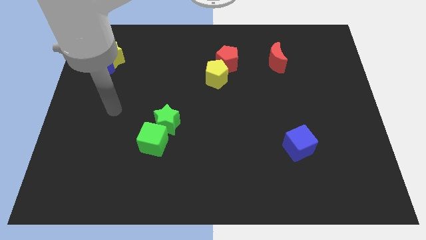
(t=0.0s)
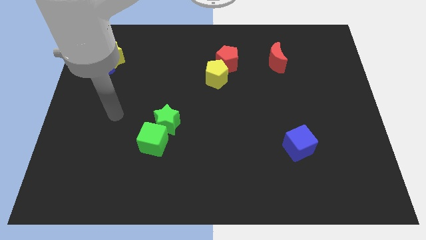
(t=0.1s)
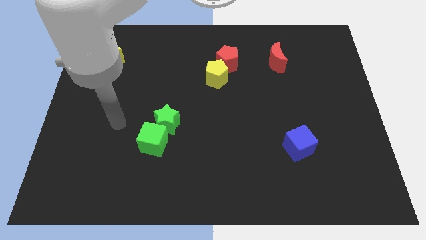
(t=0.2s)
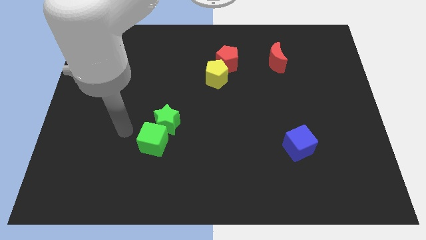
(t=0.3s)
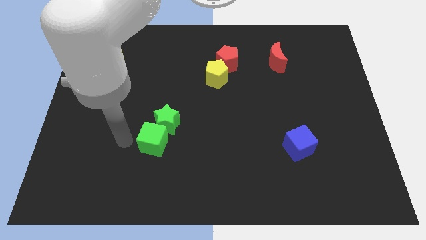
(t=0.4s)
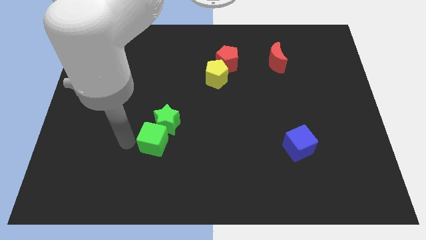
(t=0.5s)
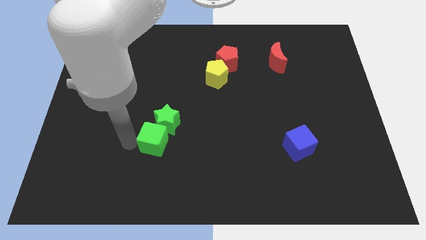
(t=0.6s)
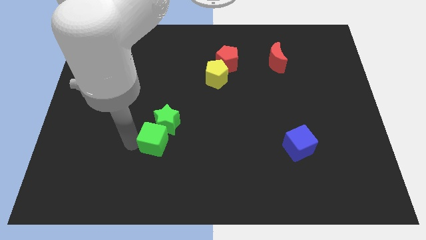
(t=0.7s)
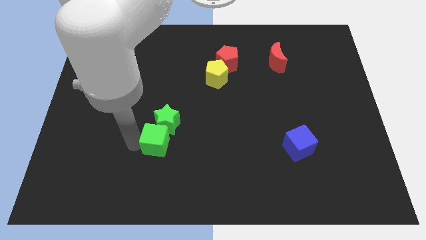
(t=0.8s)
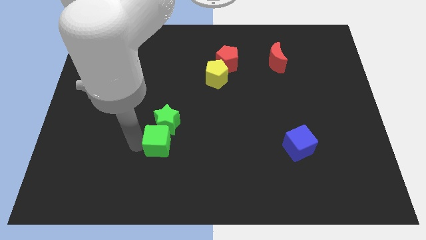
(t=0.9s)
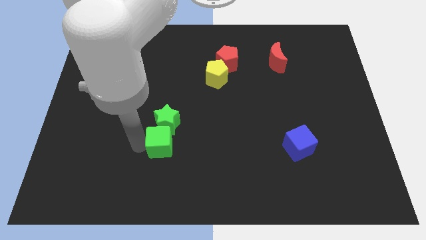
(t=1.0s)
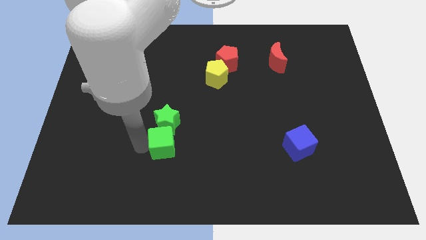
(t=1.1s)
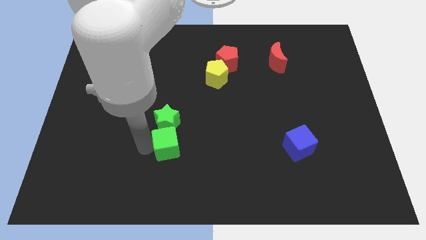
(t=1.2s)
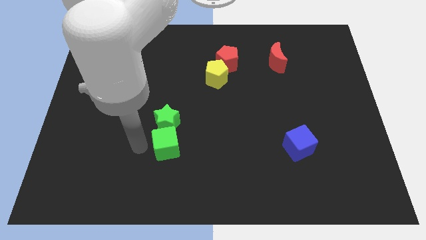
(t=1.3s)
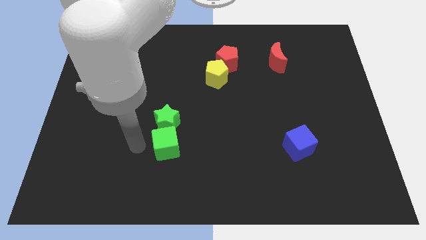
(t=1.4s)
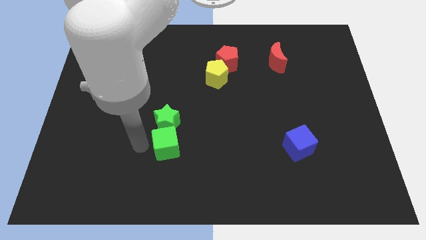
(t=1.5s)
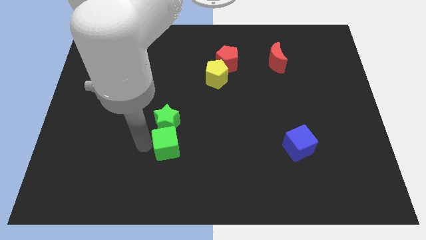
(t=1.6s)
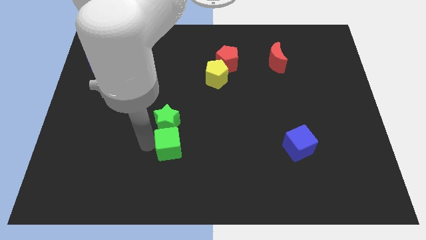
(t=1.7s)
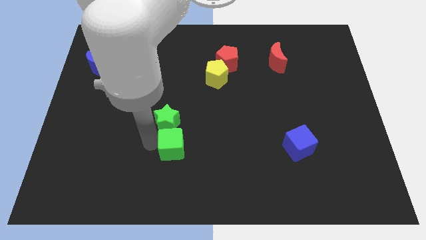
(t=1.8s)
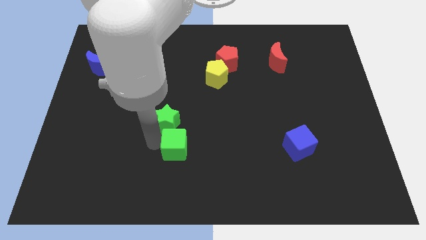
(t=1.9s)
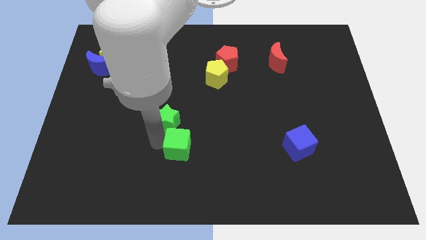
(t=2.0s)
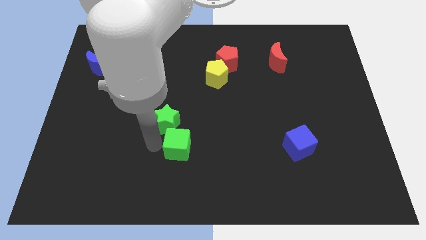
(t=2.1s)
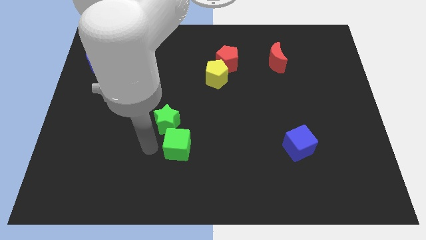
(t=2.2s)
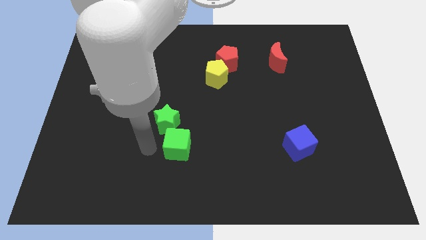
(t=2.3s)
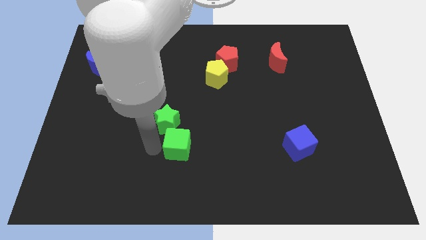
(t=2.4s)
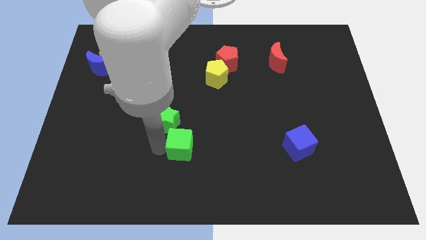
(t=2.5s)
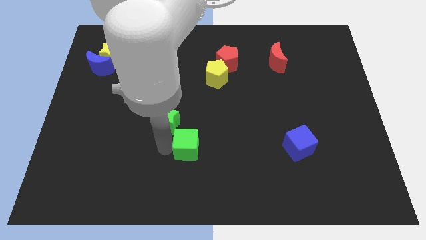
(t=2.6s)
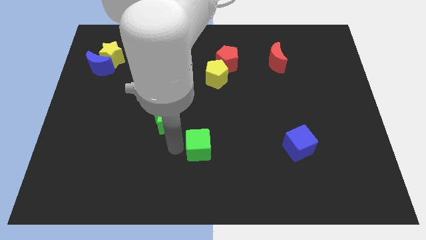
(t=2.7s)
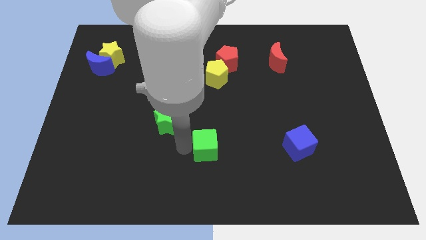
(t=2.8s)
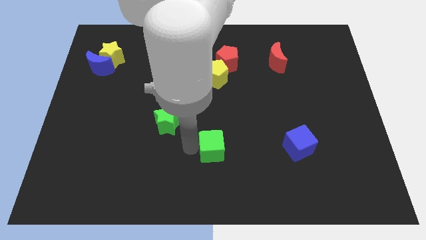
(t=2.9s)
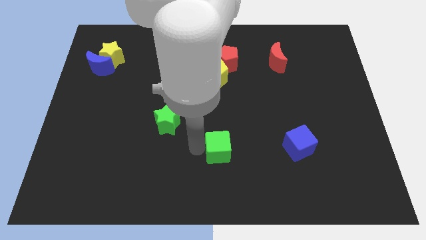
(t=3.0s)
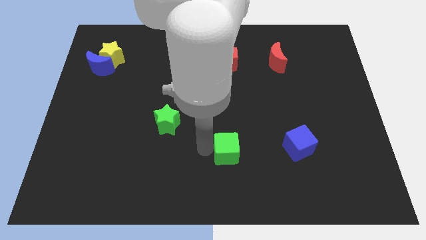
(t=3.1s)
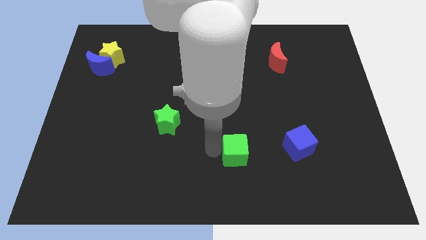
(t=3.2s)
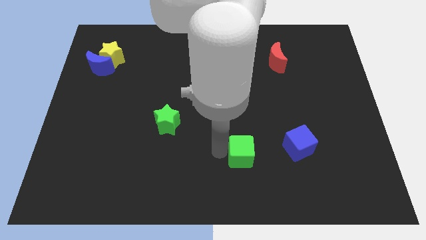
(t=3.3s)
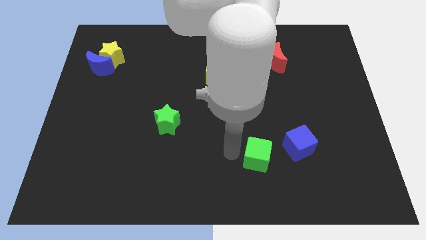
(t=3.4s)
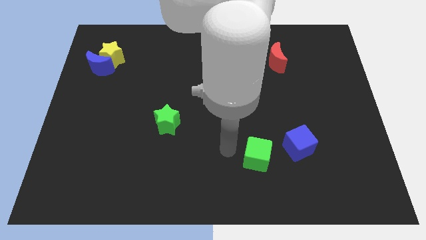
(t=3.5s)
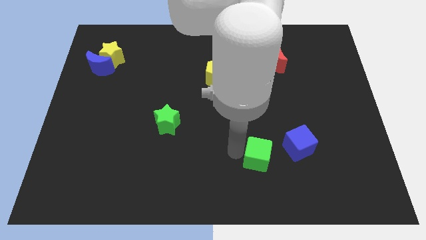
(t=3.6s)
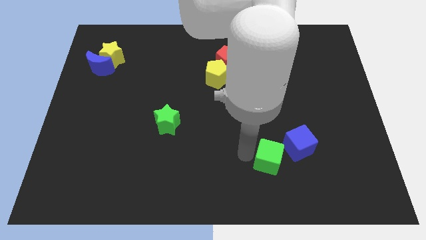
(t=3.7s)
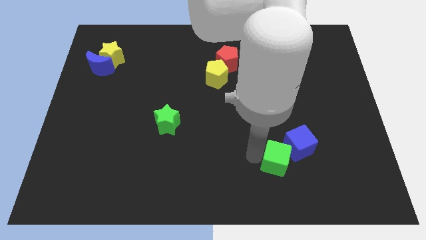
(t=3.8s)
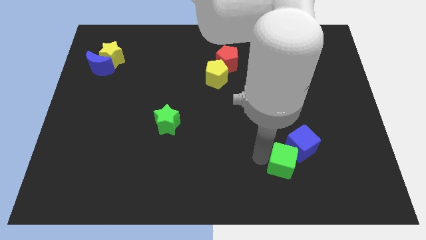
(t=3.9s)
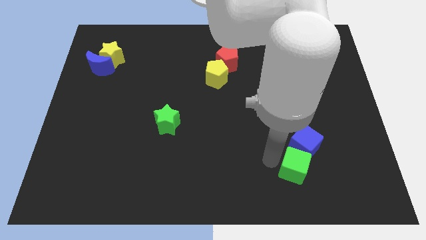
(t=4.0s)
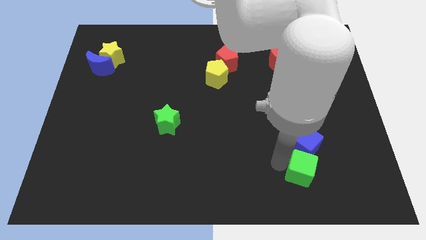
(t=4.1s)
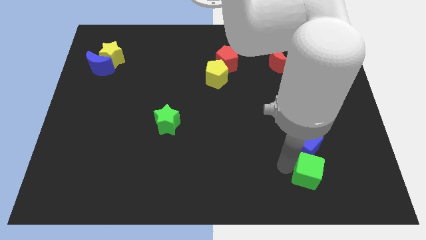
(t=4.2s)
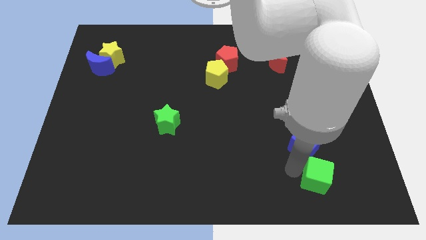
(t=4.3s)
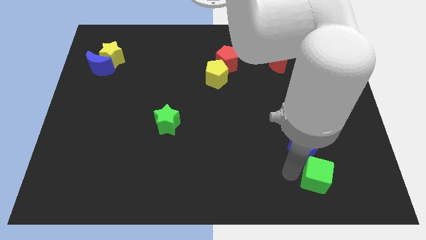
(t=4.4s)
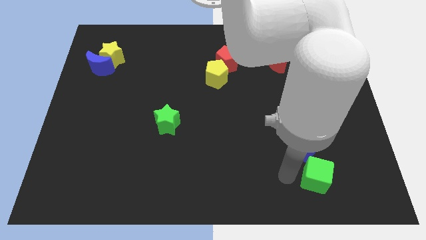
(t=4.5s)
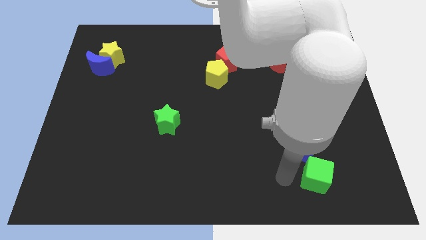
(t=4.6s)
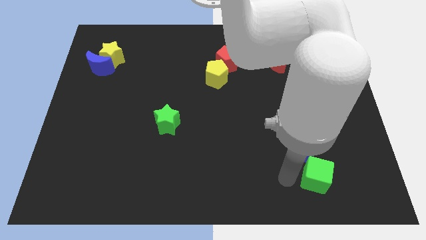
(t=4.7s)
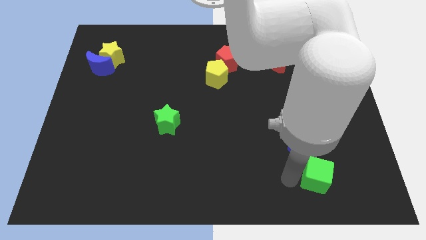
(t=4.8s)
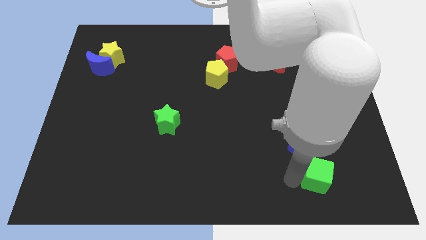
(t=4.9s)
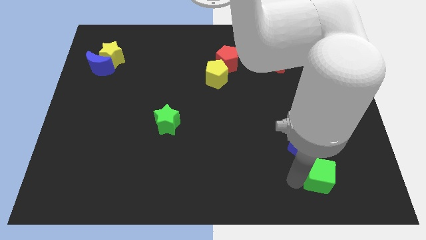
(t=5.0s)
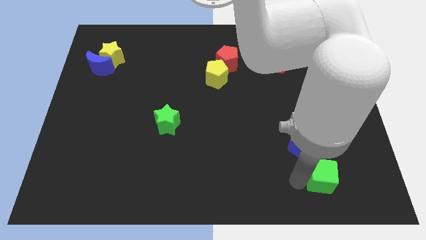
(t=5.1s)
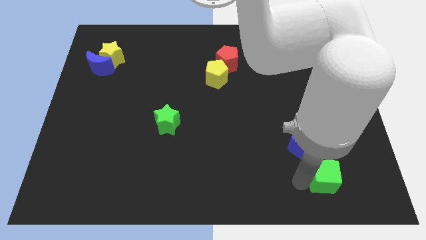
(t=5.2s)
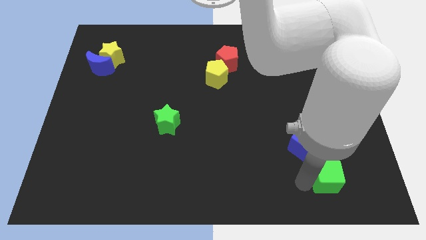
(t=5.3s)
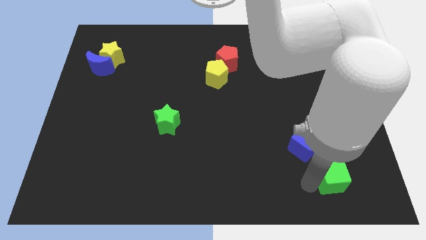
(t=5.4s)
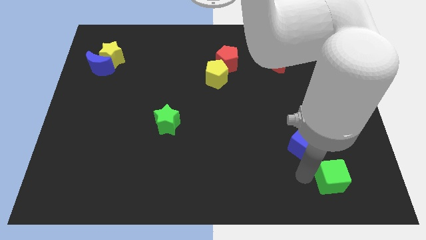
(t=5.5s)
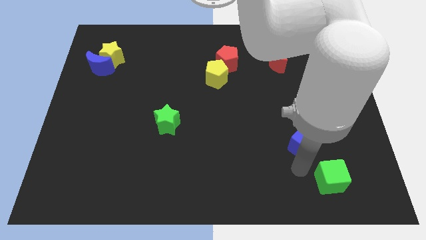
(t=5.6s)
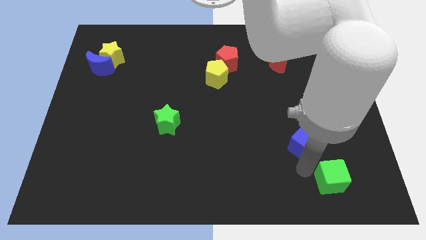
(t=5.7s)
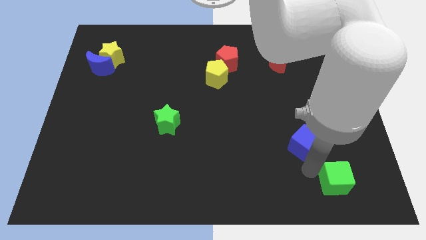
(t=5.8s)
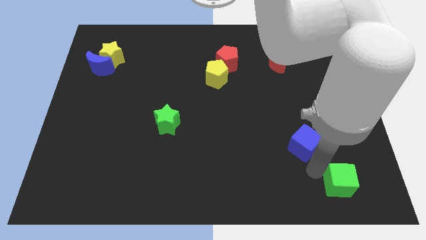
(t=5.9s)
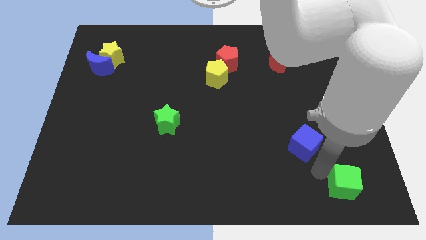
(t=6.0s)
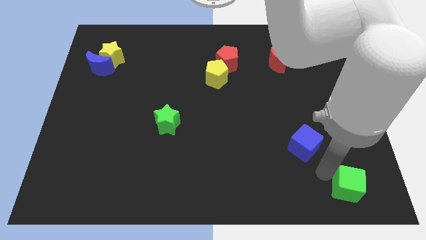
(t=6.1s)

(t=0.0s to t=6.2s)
push the green cube to the bottom right of the board
